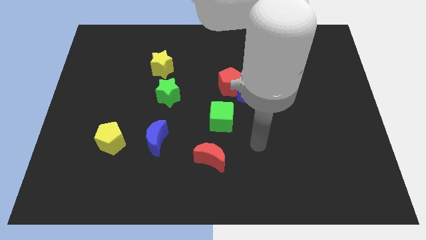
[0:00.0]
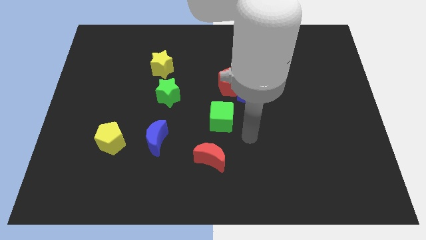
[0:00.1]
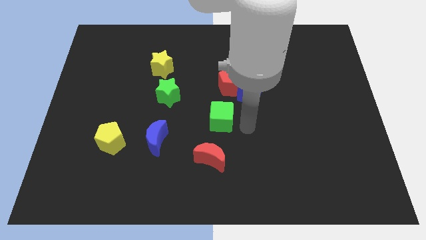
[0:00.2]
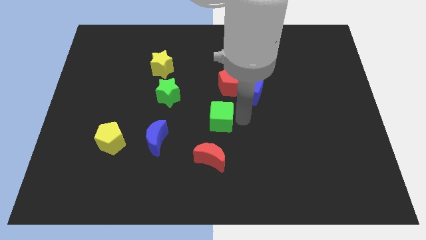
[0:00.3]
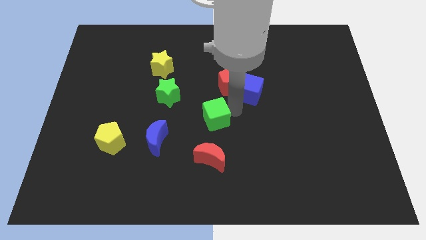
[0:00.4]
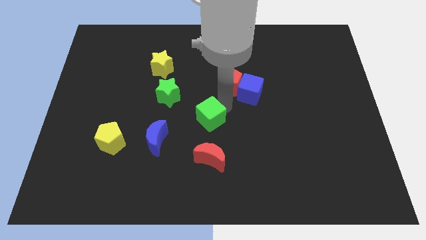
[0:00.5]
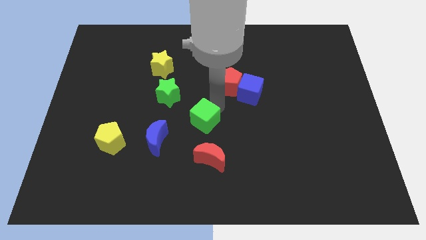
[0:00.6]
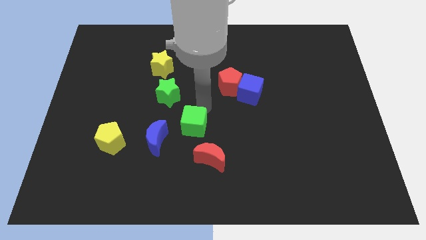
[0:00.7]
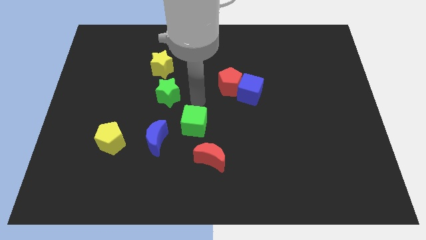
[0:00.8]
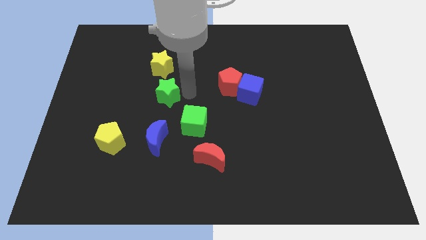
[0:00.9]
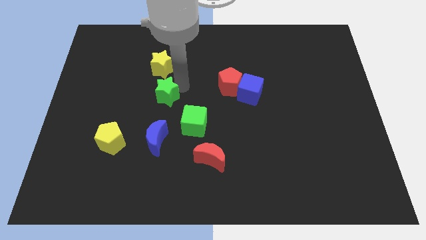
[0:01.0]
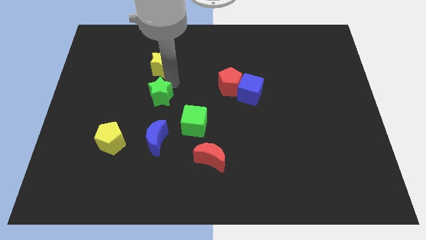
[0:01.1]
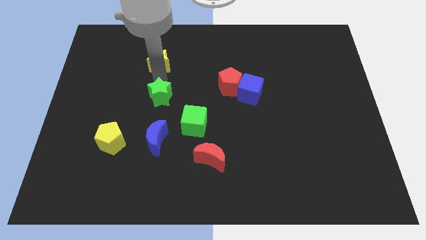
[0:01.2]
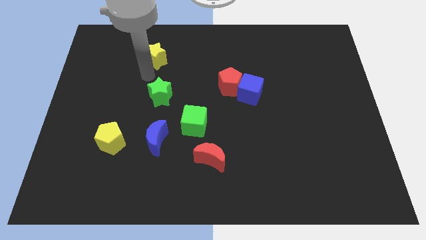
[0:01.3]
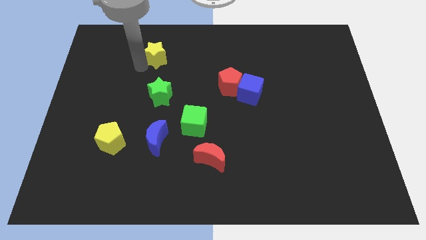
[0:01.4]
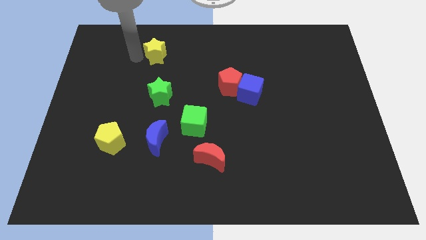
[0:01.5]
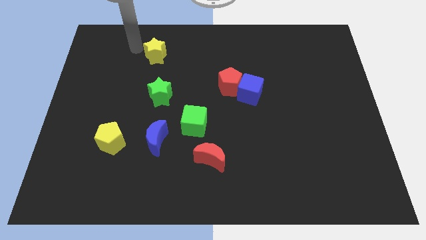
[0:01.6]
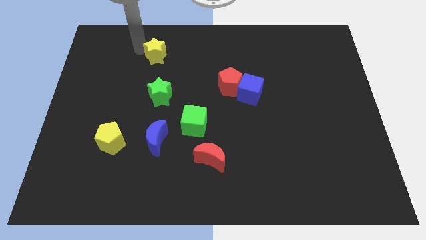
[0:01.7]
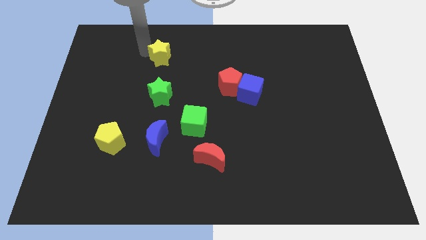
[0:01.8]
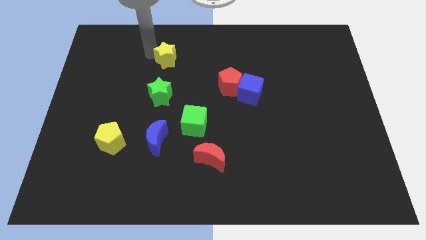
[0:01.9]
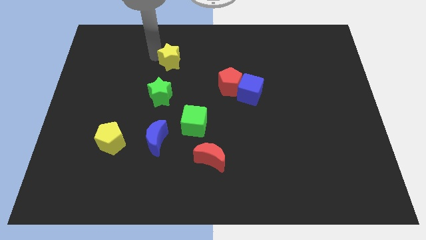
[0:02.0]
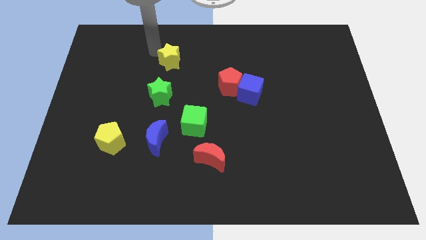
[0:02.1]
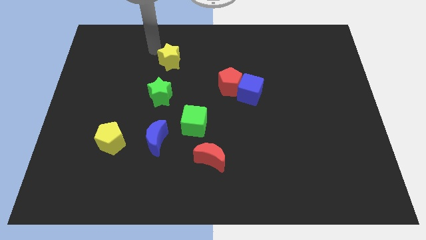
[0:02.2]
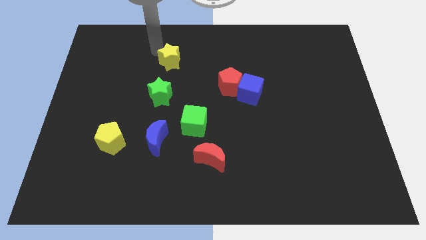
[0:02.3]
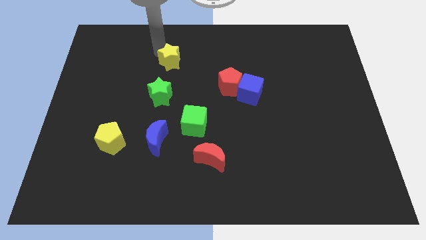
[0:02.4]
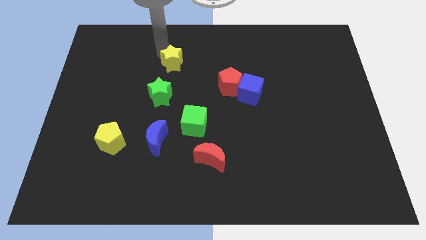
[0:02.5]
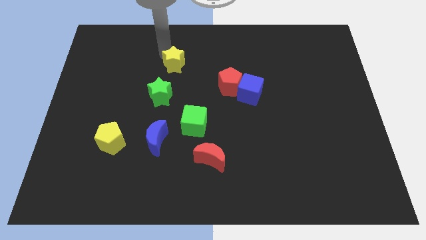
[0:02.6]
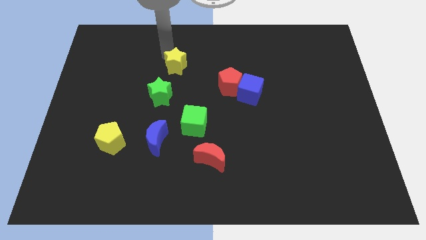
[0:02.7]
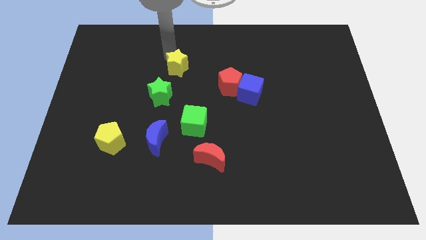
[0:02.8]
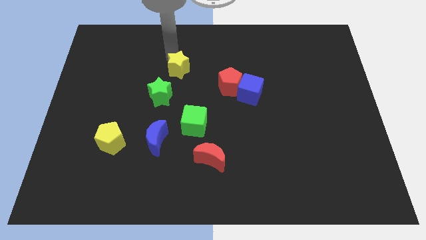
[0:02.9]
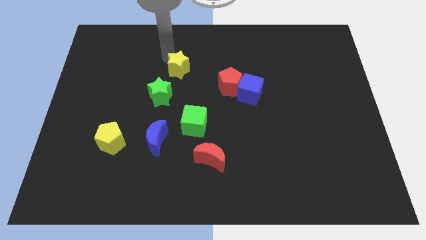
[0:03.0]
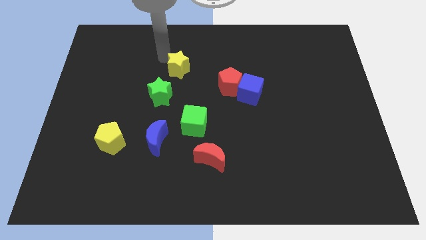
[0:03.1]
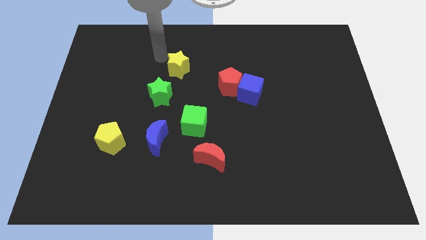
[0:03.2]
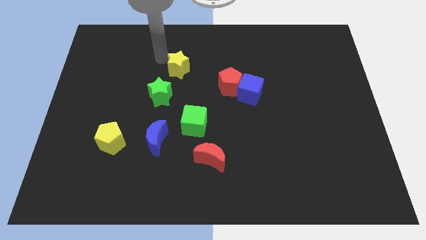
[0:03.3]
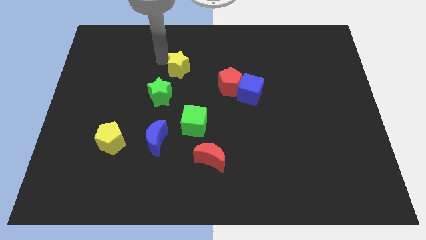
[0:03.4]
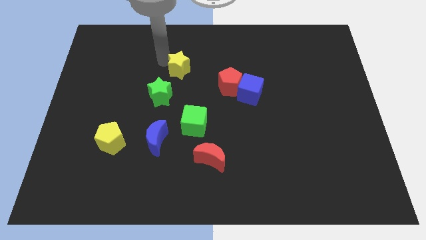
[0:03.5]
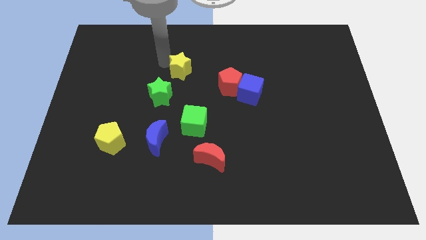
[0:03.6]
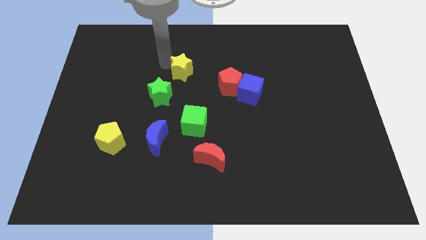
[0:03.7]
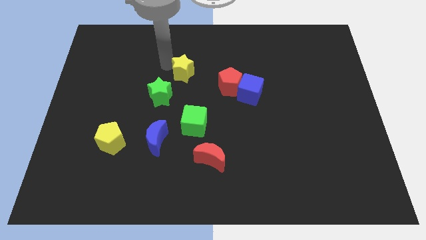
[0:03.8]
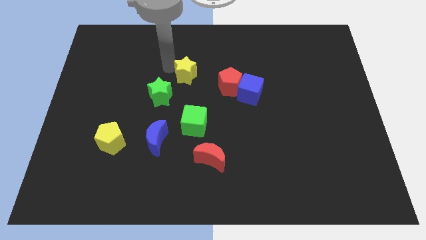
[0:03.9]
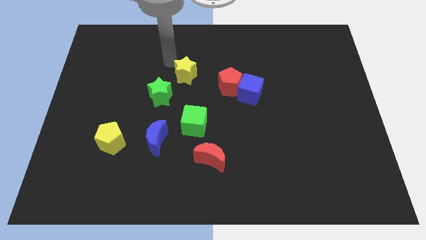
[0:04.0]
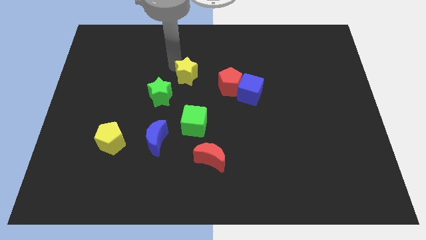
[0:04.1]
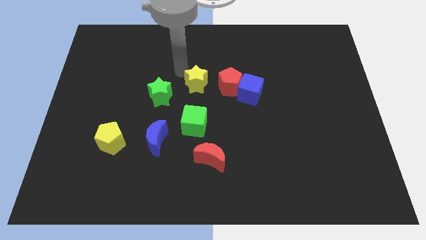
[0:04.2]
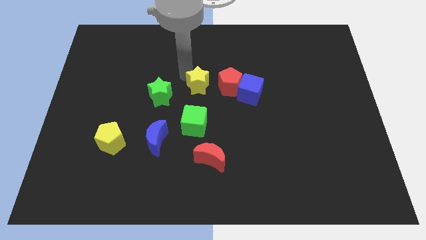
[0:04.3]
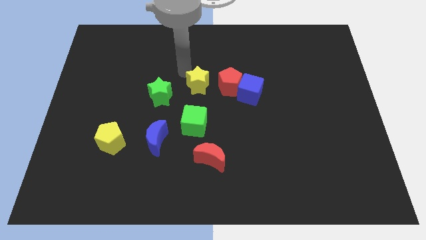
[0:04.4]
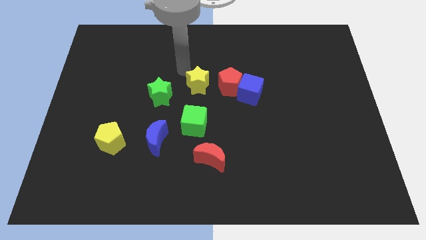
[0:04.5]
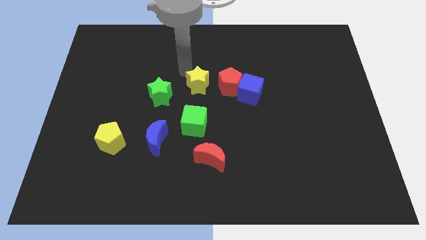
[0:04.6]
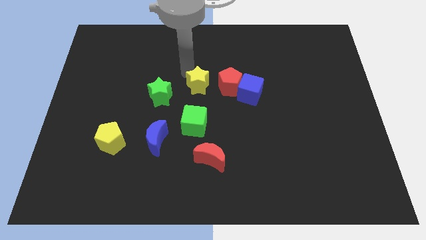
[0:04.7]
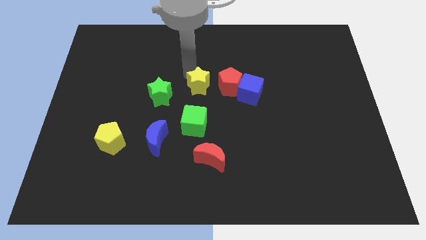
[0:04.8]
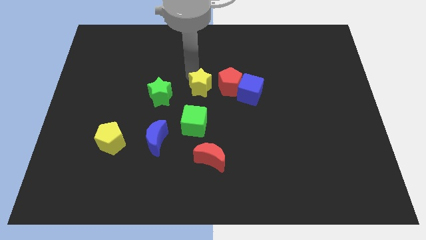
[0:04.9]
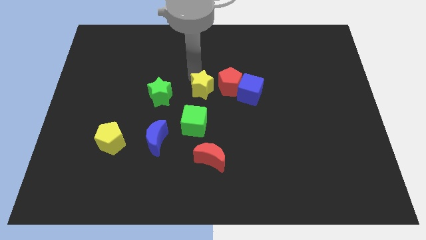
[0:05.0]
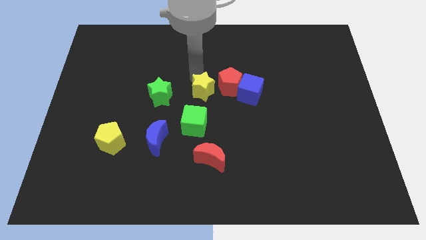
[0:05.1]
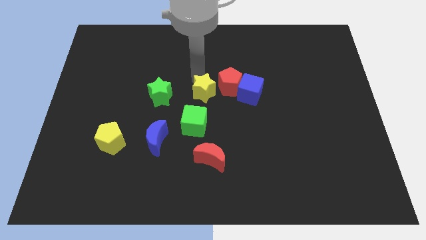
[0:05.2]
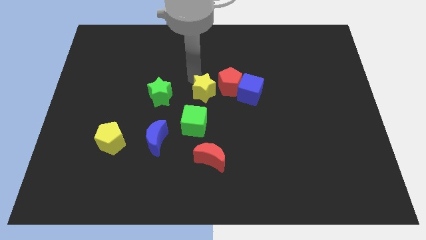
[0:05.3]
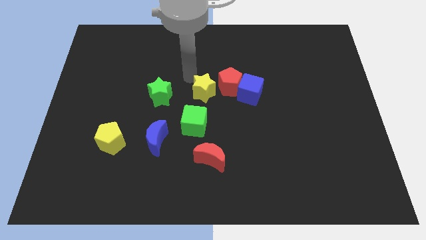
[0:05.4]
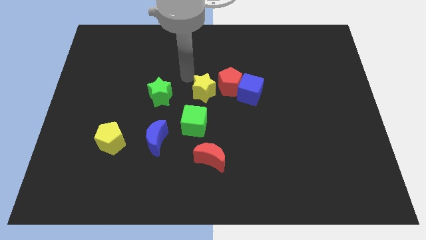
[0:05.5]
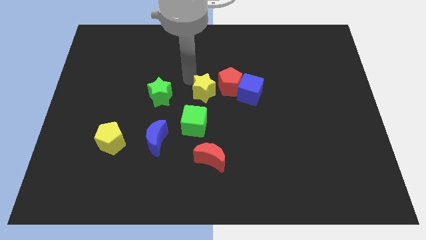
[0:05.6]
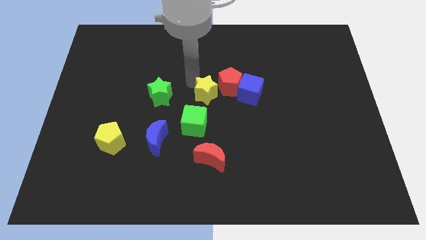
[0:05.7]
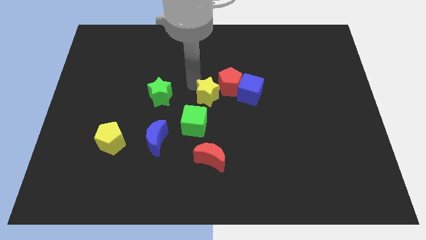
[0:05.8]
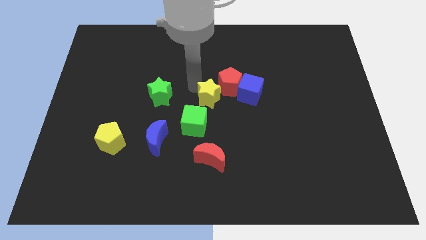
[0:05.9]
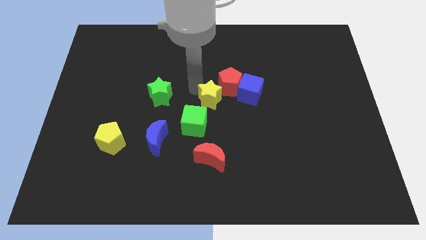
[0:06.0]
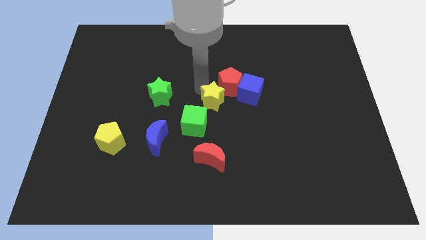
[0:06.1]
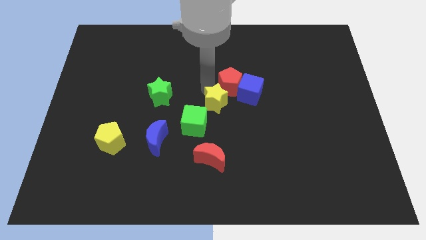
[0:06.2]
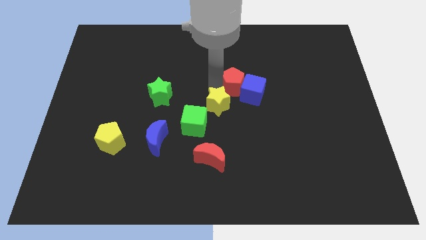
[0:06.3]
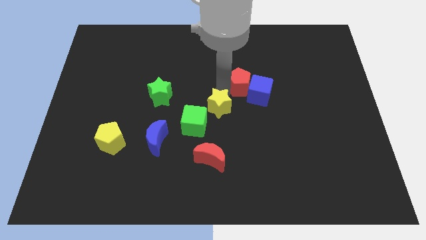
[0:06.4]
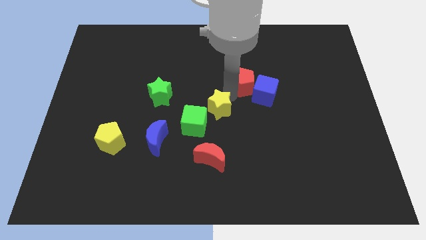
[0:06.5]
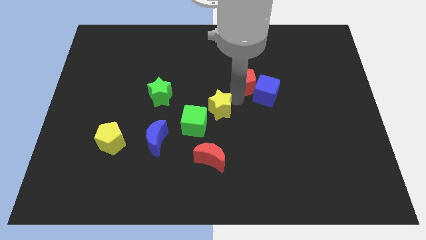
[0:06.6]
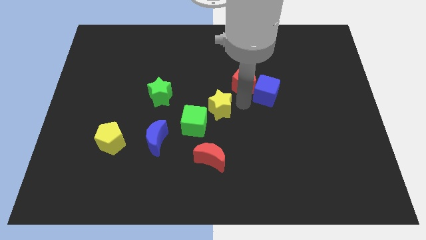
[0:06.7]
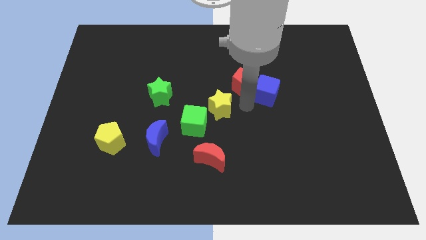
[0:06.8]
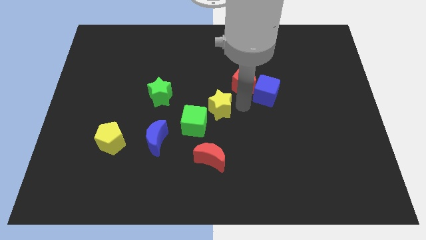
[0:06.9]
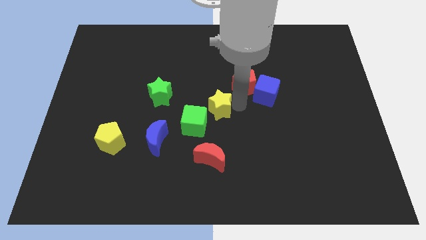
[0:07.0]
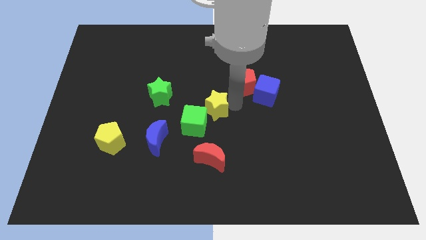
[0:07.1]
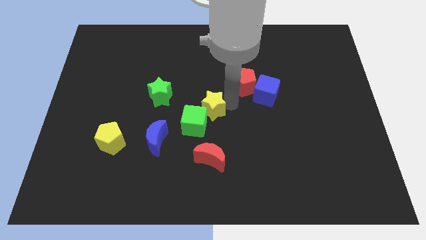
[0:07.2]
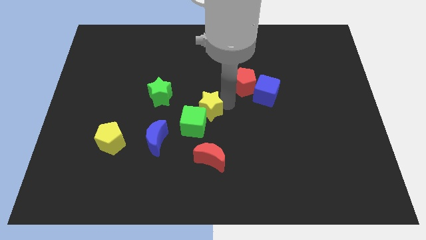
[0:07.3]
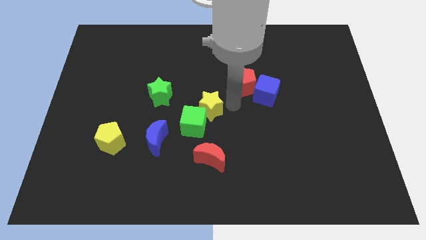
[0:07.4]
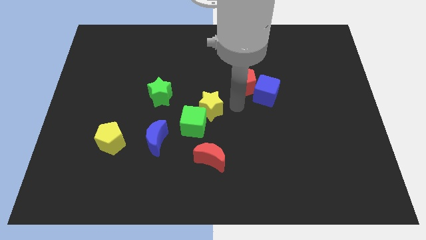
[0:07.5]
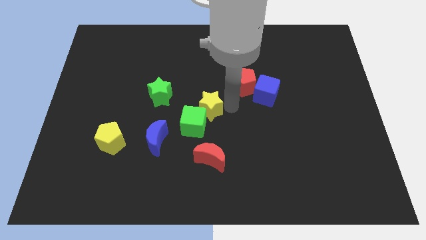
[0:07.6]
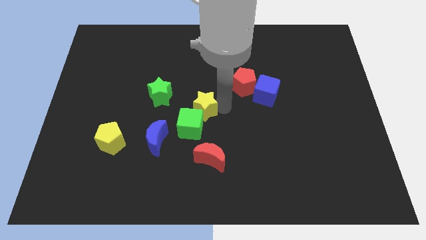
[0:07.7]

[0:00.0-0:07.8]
move the yellow star diagonally down and to the right of the green star
